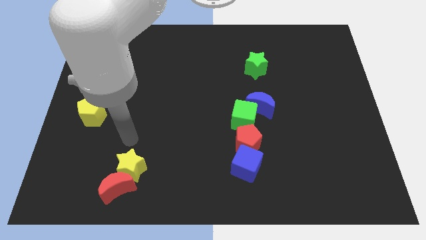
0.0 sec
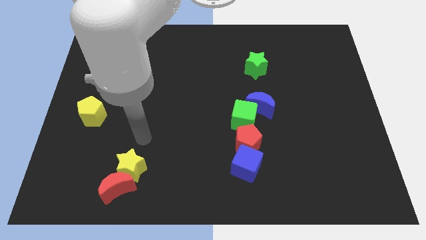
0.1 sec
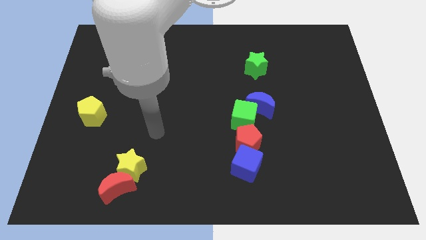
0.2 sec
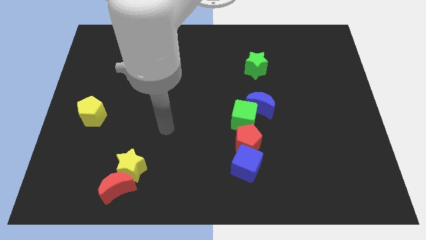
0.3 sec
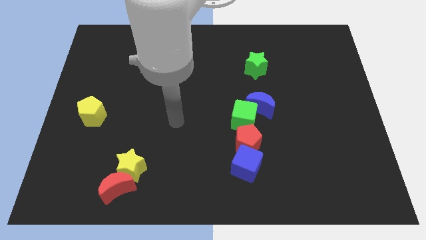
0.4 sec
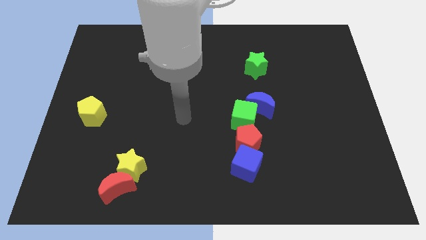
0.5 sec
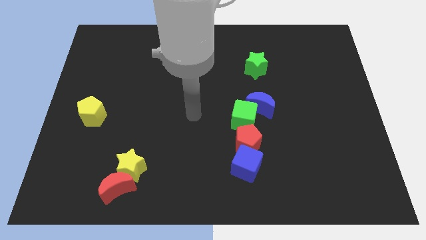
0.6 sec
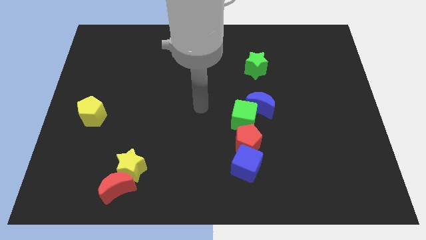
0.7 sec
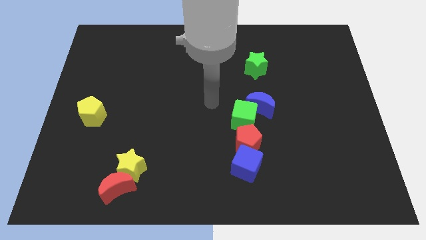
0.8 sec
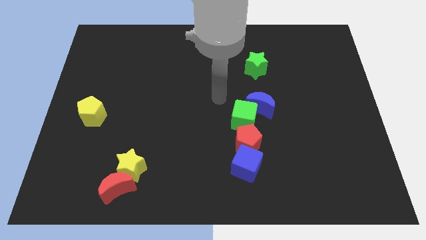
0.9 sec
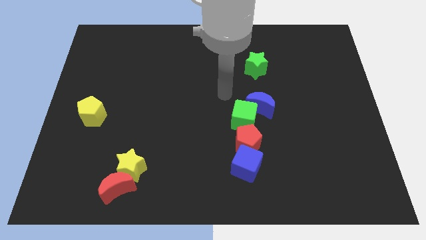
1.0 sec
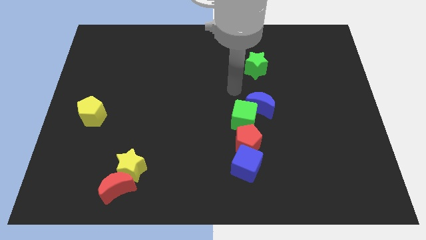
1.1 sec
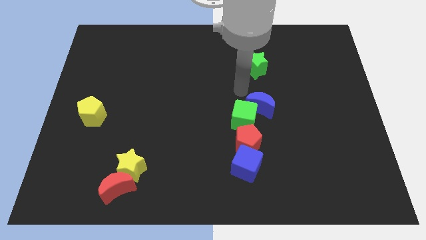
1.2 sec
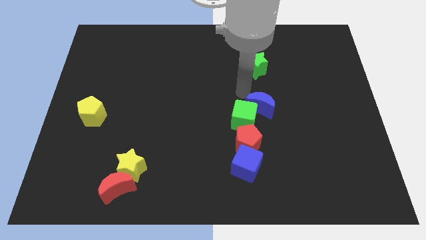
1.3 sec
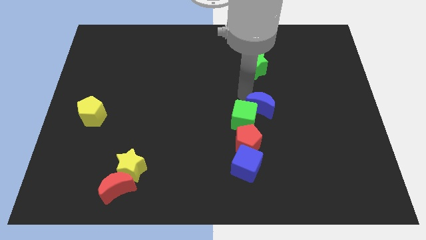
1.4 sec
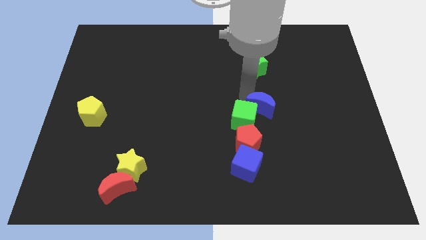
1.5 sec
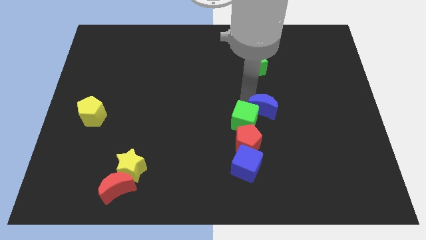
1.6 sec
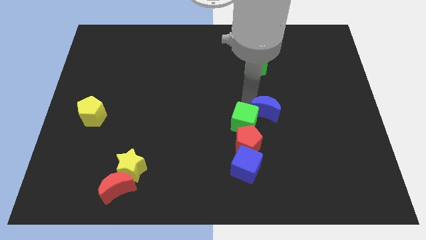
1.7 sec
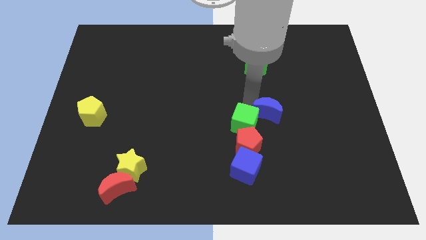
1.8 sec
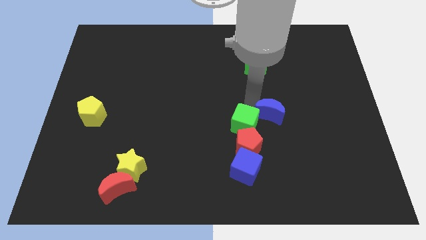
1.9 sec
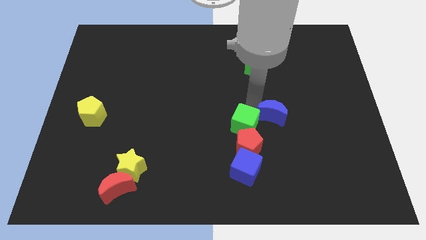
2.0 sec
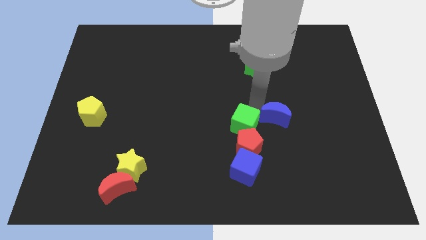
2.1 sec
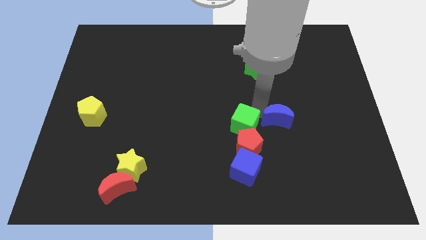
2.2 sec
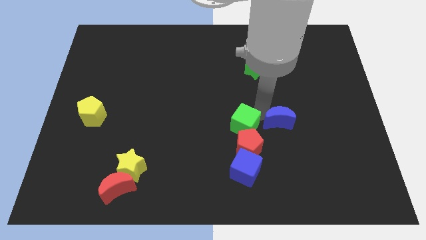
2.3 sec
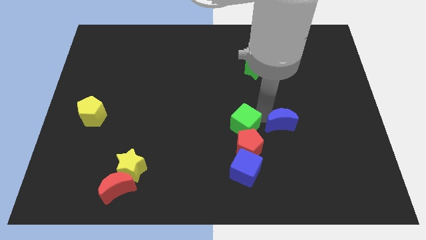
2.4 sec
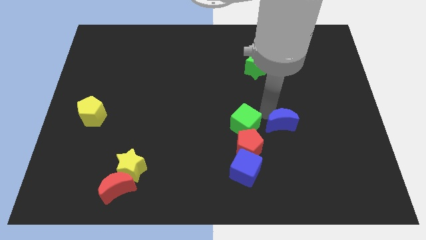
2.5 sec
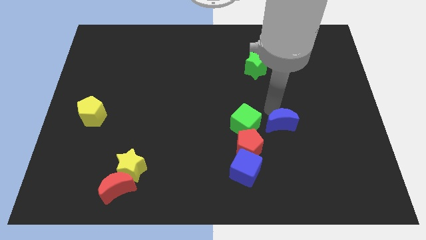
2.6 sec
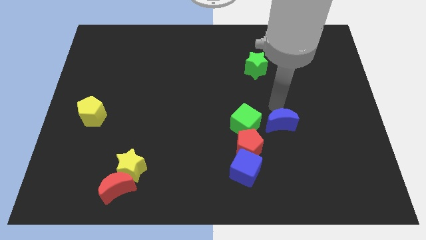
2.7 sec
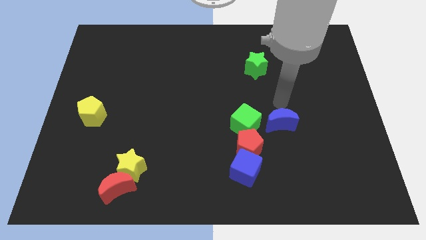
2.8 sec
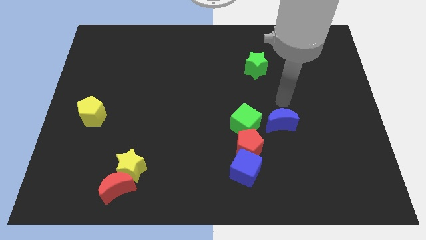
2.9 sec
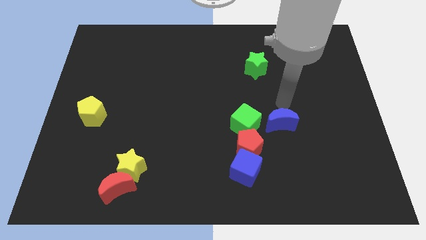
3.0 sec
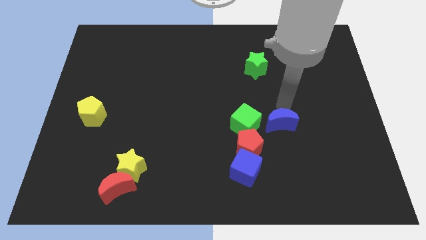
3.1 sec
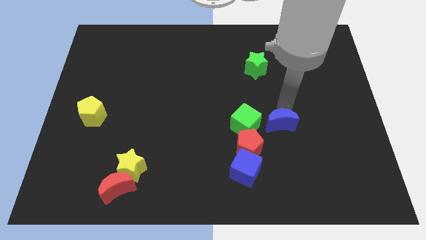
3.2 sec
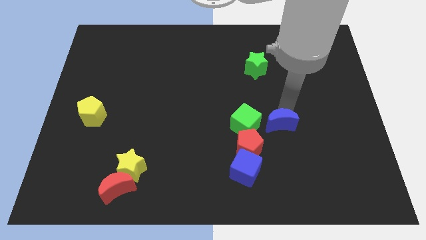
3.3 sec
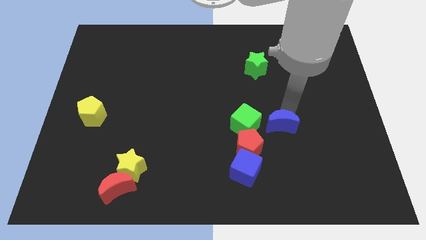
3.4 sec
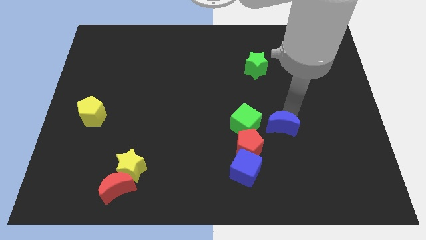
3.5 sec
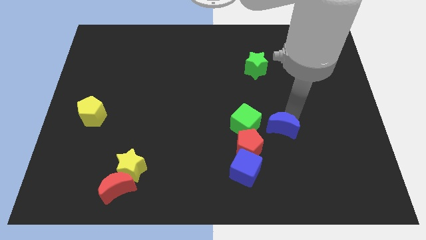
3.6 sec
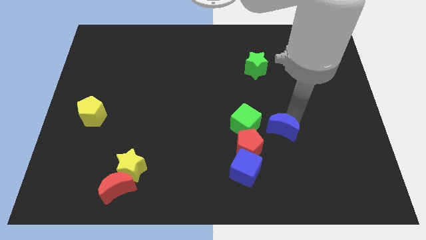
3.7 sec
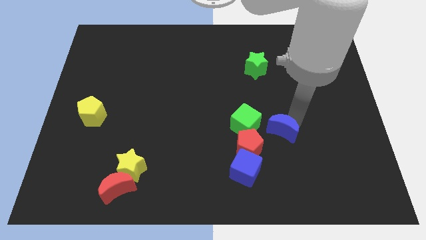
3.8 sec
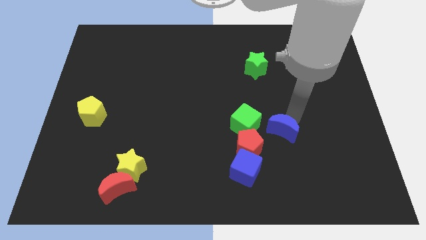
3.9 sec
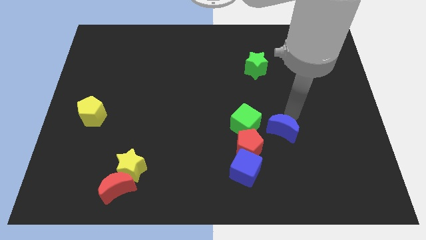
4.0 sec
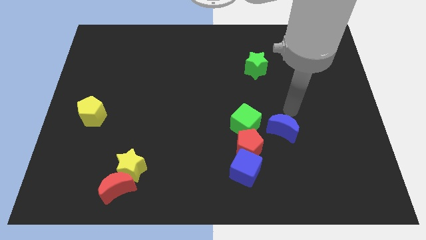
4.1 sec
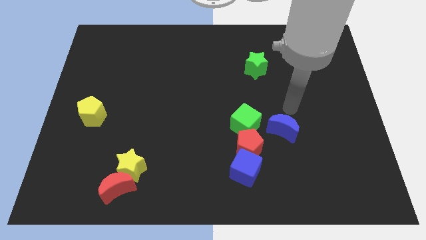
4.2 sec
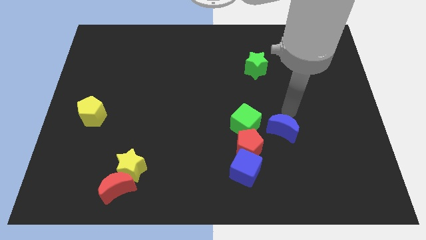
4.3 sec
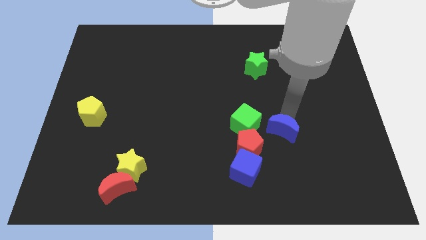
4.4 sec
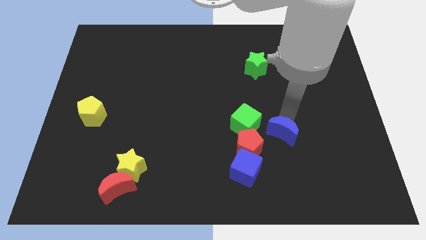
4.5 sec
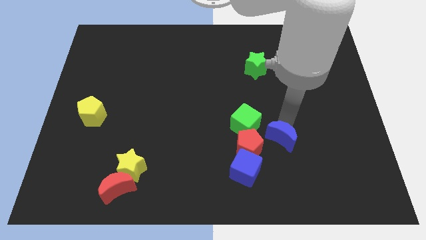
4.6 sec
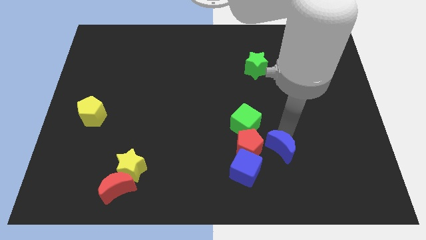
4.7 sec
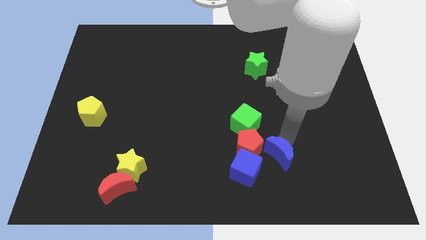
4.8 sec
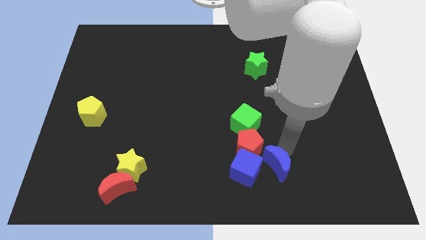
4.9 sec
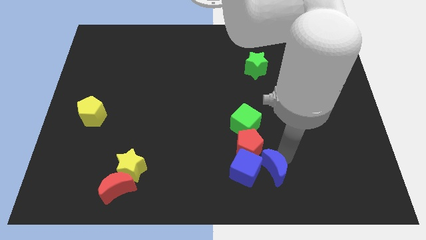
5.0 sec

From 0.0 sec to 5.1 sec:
slide the blue moon towards the blue cube

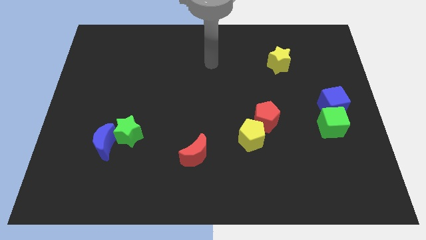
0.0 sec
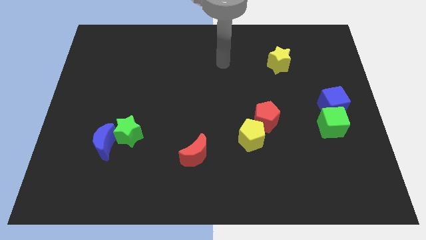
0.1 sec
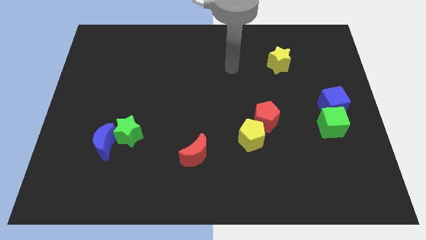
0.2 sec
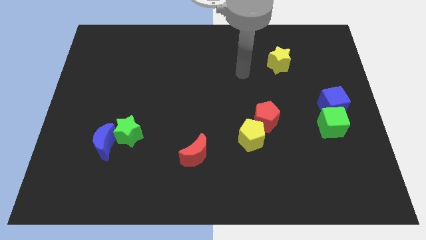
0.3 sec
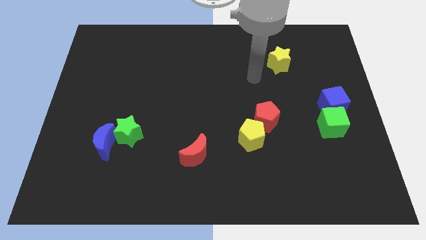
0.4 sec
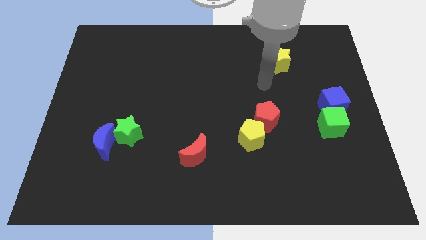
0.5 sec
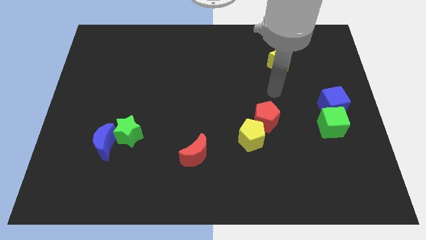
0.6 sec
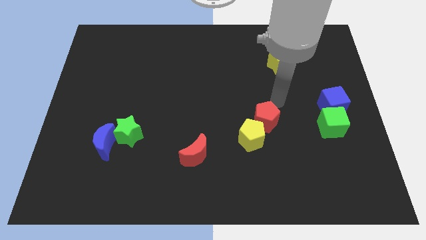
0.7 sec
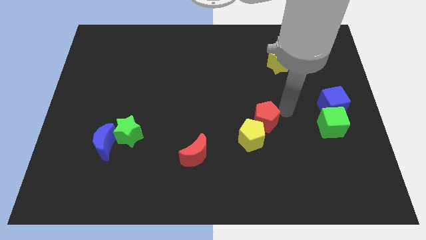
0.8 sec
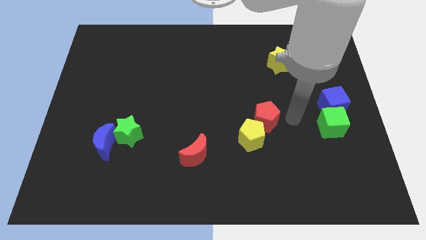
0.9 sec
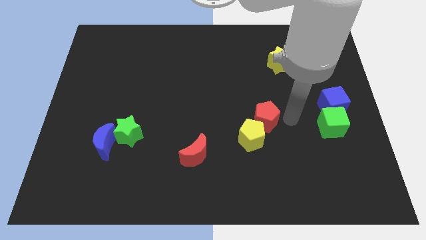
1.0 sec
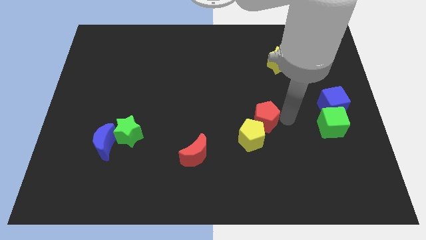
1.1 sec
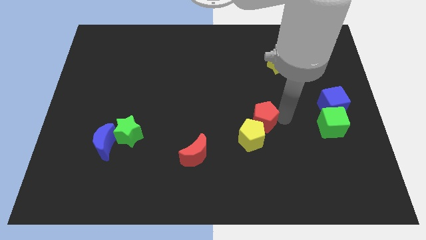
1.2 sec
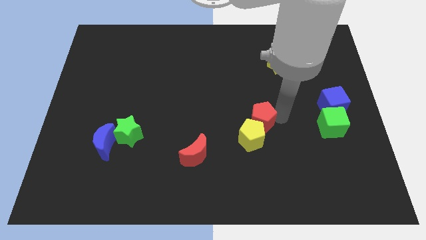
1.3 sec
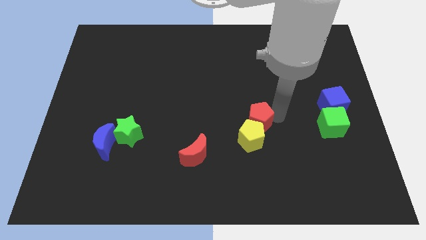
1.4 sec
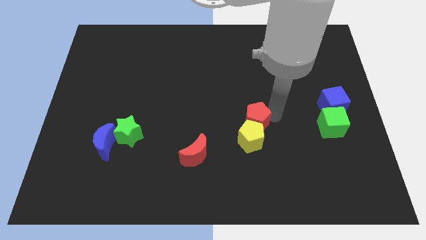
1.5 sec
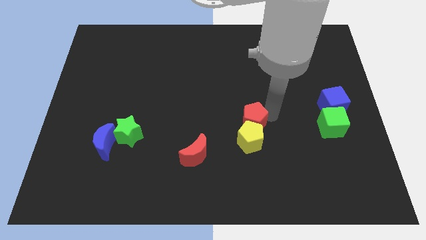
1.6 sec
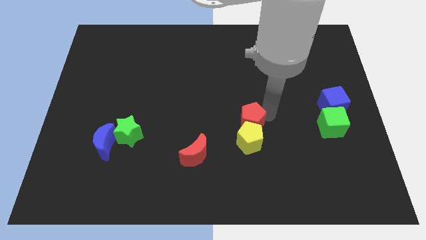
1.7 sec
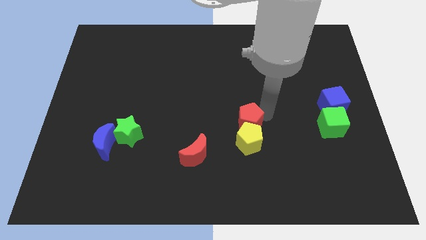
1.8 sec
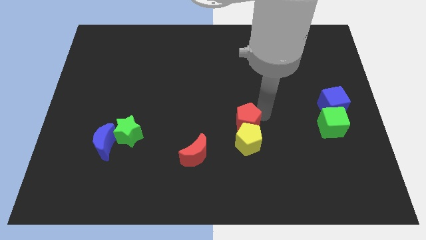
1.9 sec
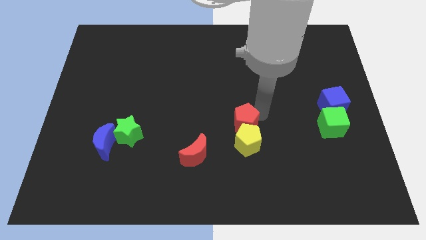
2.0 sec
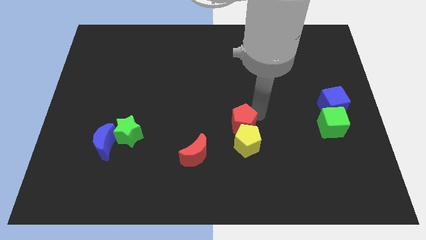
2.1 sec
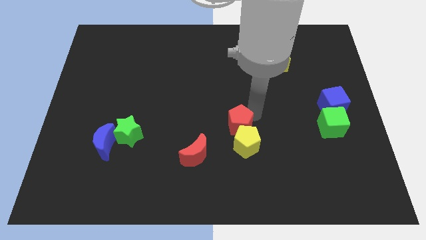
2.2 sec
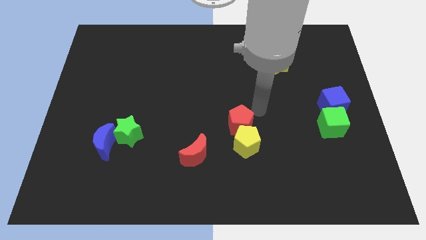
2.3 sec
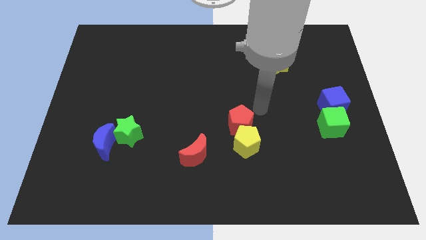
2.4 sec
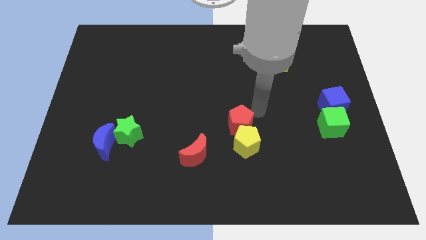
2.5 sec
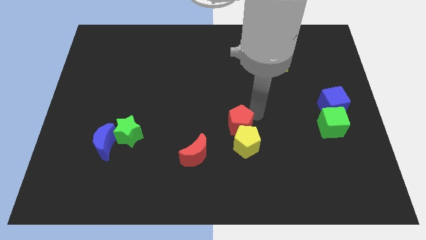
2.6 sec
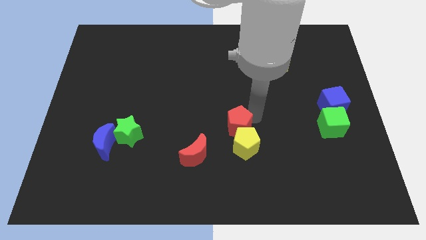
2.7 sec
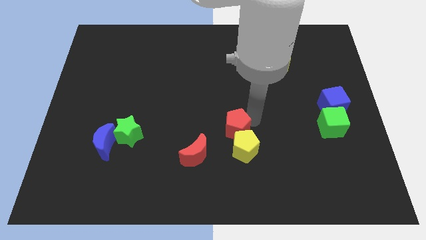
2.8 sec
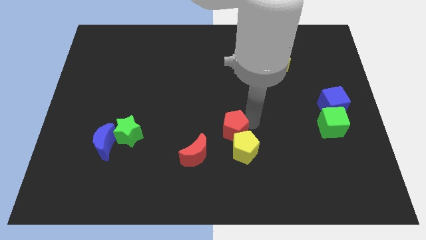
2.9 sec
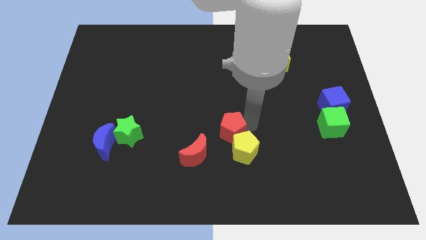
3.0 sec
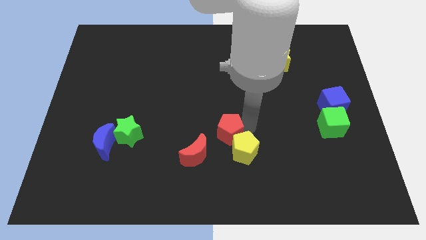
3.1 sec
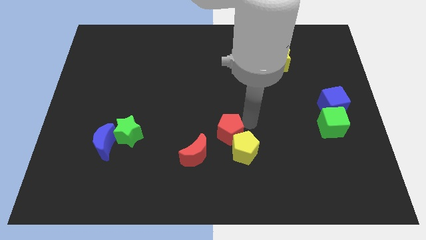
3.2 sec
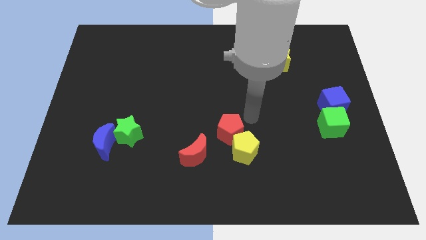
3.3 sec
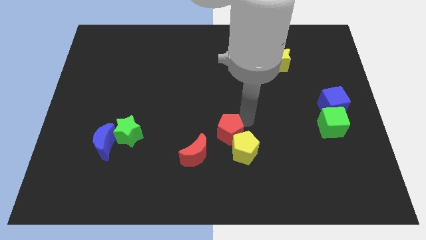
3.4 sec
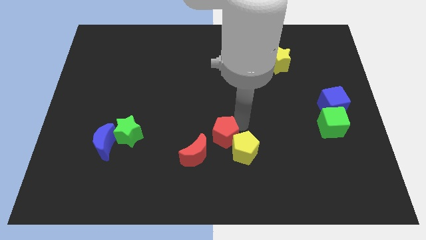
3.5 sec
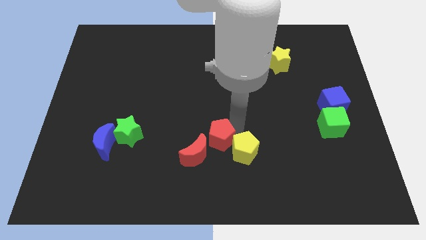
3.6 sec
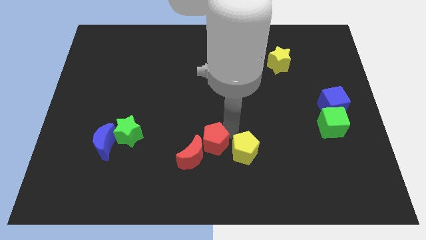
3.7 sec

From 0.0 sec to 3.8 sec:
slide the red pentagon towards the red moon
